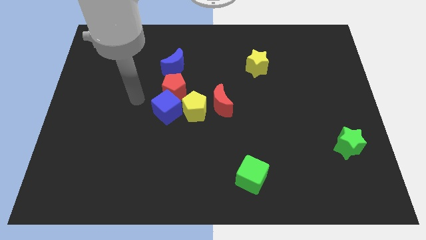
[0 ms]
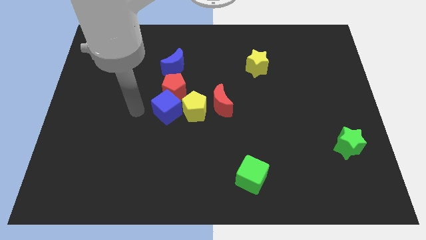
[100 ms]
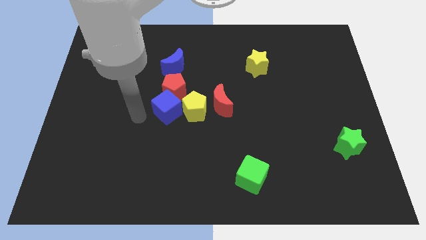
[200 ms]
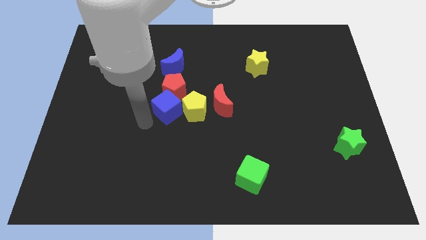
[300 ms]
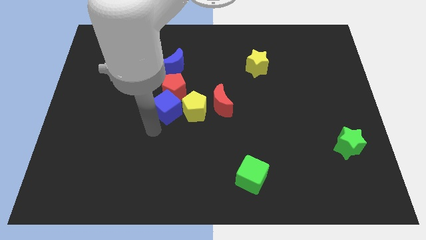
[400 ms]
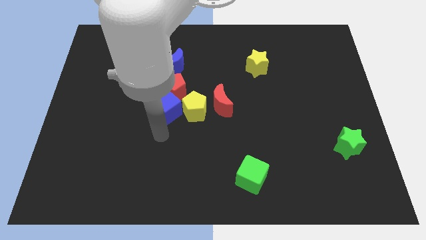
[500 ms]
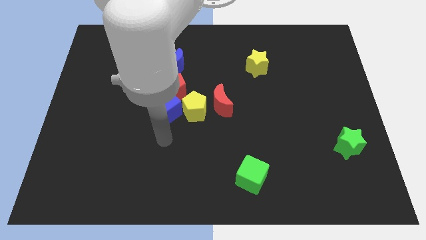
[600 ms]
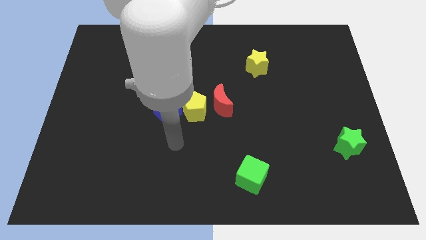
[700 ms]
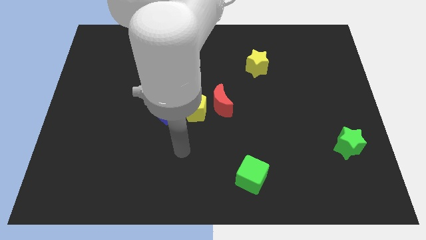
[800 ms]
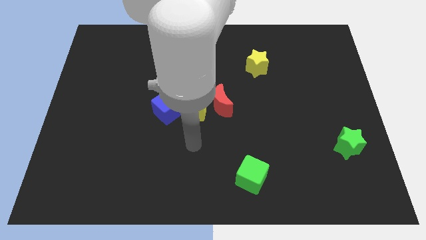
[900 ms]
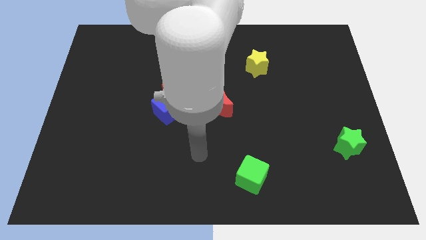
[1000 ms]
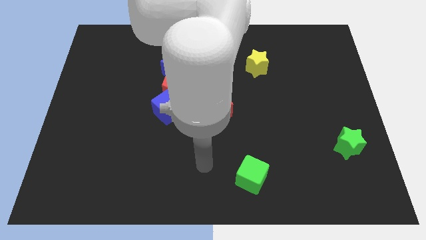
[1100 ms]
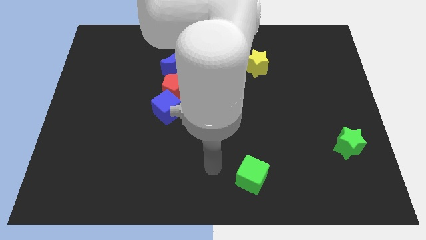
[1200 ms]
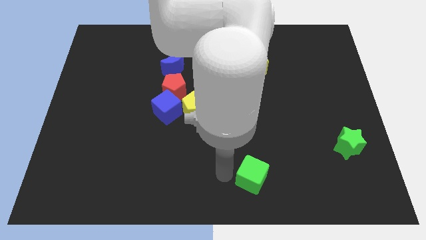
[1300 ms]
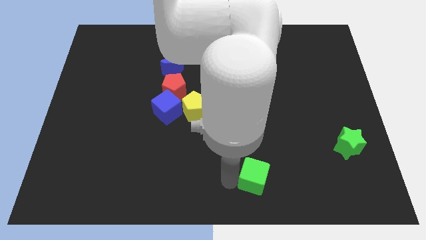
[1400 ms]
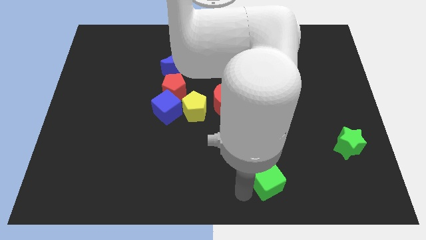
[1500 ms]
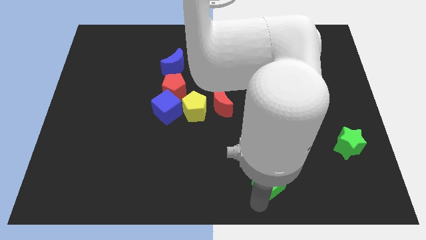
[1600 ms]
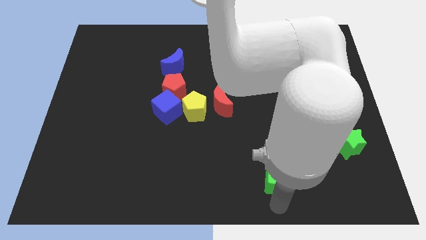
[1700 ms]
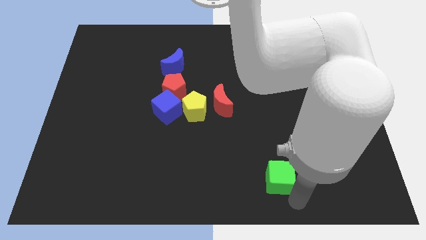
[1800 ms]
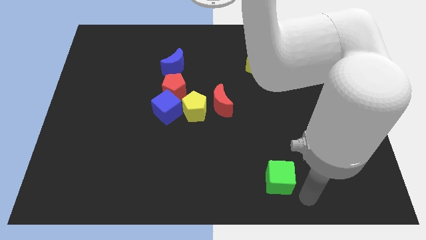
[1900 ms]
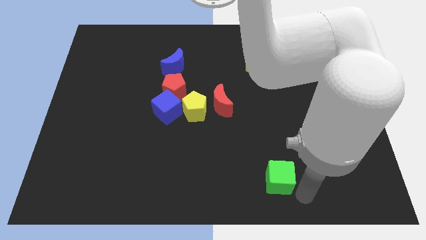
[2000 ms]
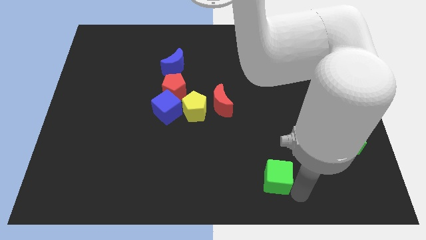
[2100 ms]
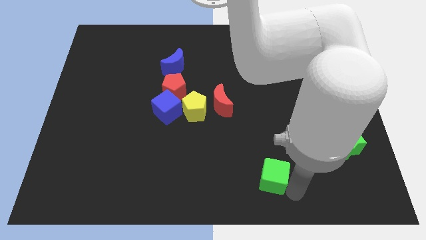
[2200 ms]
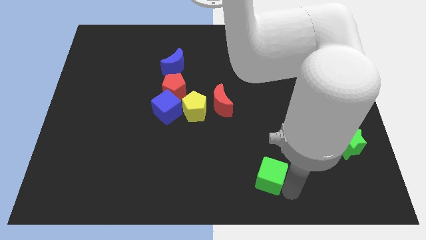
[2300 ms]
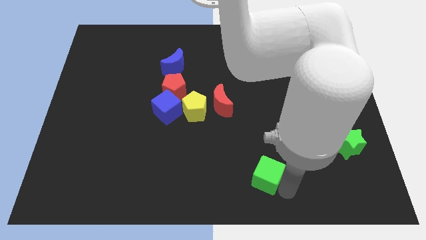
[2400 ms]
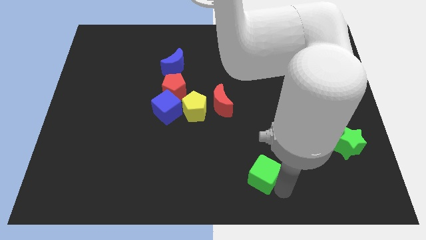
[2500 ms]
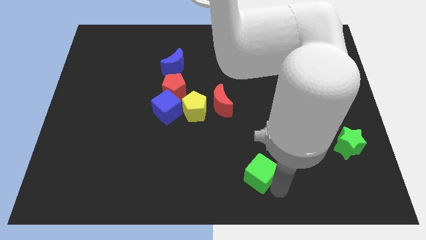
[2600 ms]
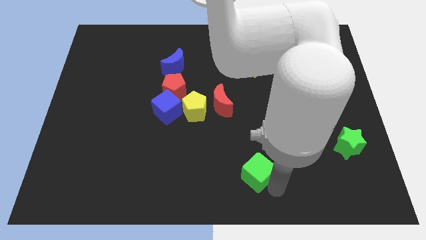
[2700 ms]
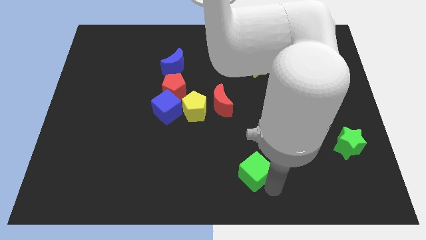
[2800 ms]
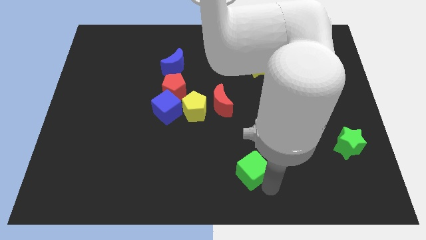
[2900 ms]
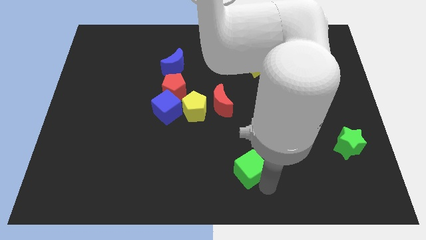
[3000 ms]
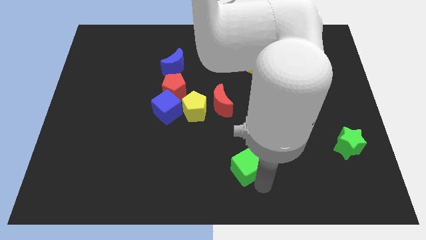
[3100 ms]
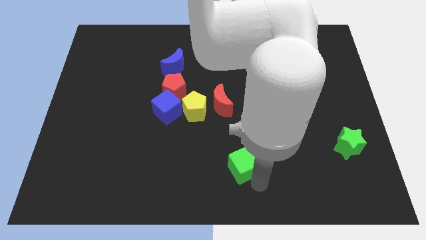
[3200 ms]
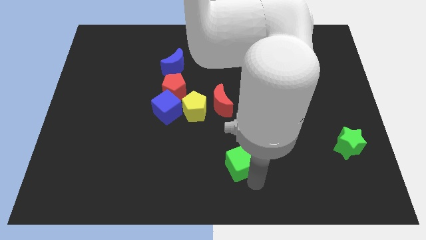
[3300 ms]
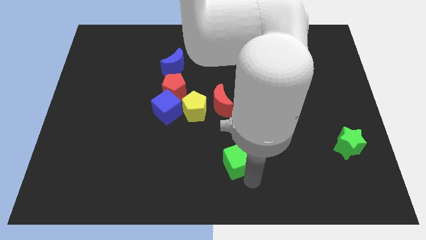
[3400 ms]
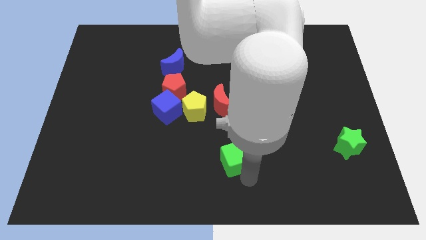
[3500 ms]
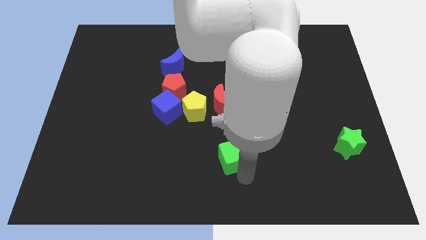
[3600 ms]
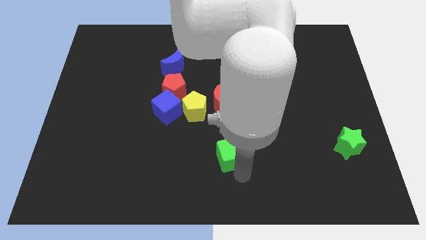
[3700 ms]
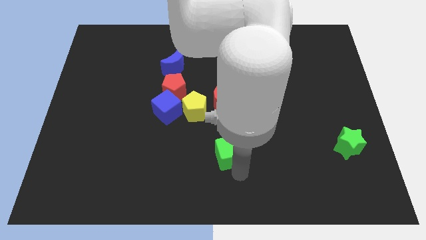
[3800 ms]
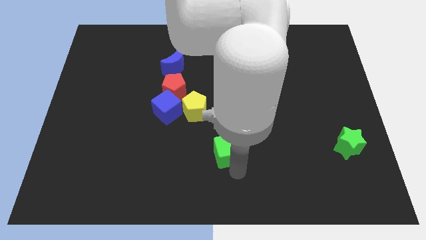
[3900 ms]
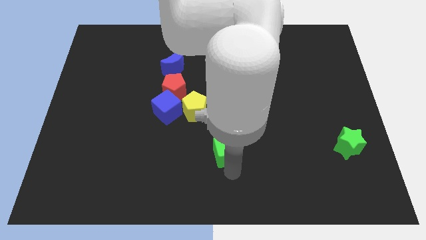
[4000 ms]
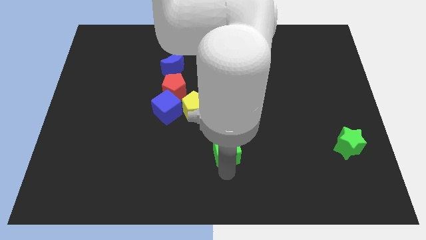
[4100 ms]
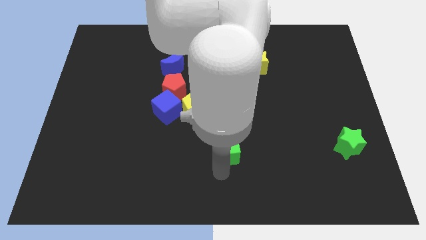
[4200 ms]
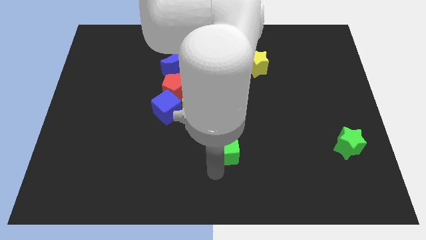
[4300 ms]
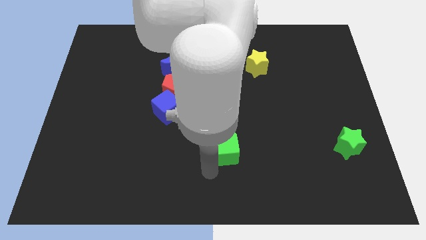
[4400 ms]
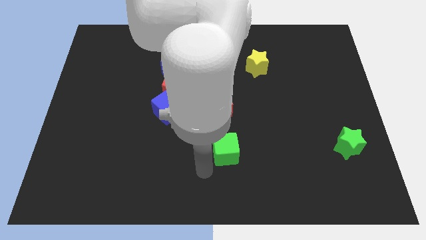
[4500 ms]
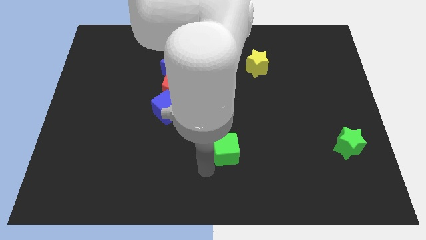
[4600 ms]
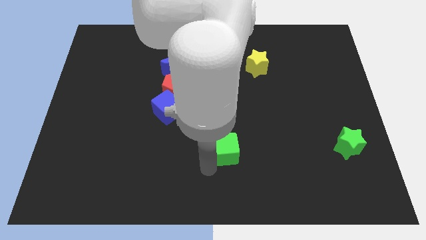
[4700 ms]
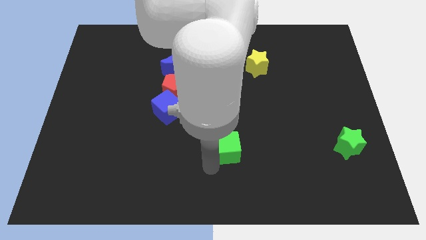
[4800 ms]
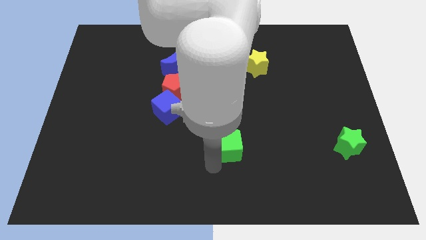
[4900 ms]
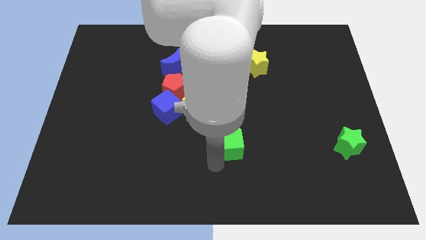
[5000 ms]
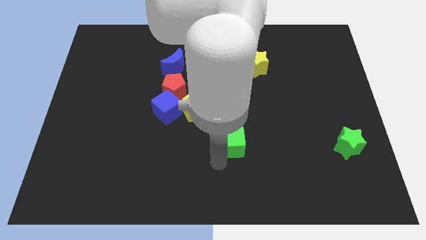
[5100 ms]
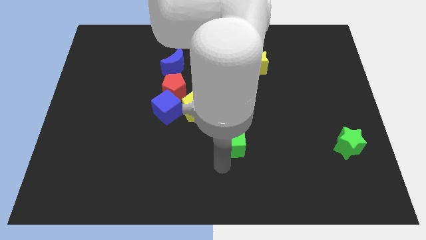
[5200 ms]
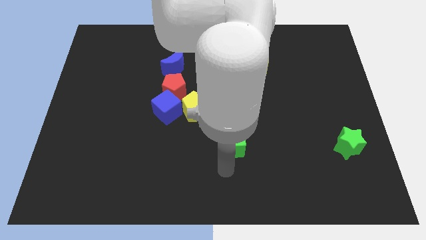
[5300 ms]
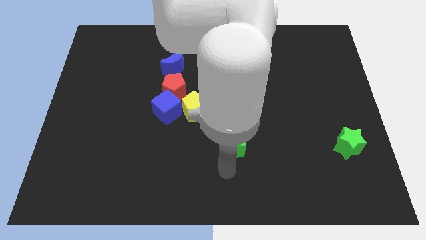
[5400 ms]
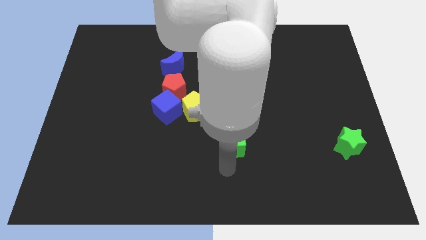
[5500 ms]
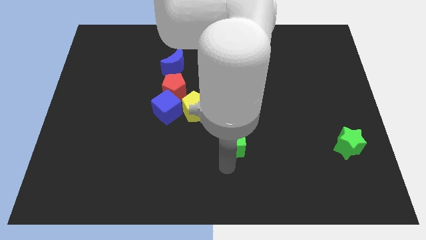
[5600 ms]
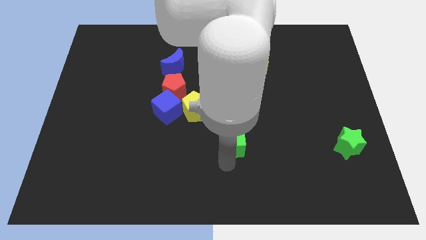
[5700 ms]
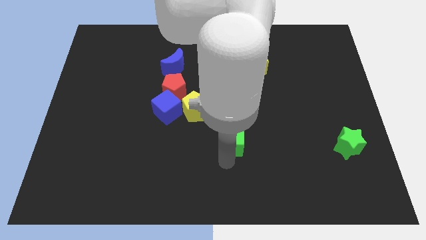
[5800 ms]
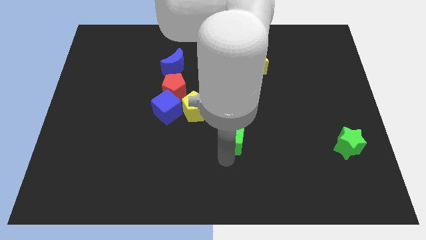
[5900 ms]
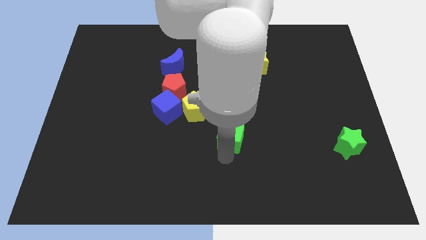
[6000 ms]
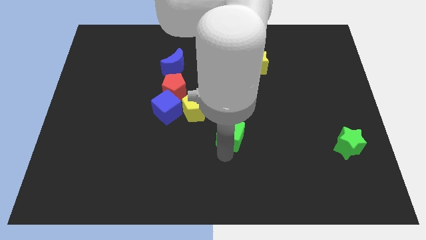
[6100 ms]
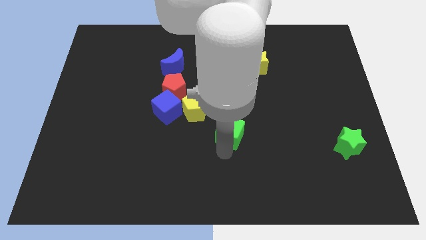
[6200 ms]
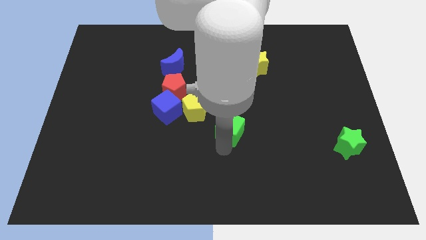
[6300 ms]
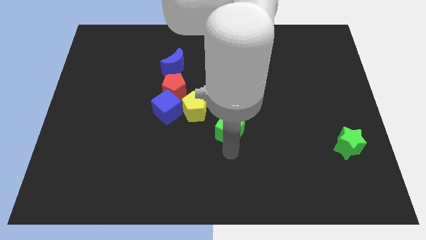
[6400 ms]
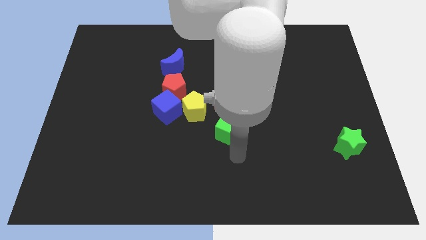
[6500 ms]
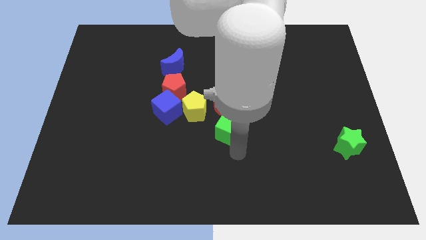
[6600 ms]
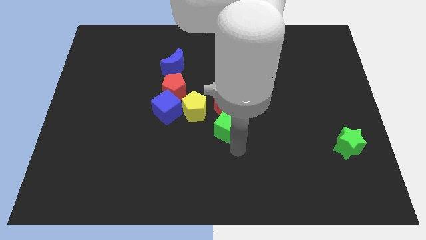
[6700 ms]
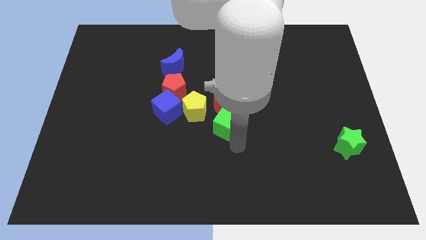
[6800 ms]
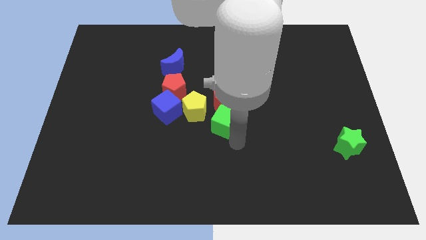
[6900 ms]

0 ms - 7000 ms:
move the green cube to the red moon

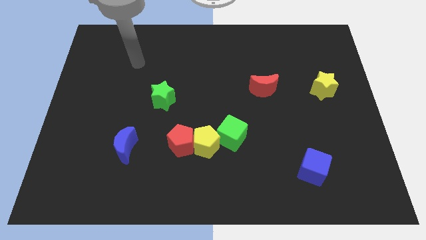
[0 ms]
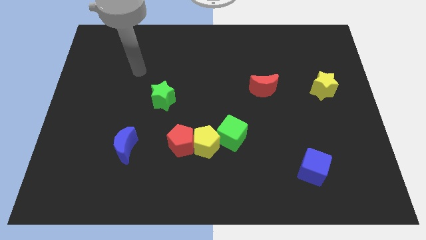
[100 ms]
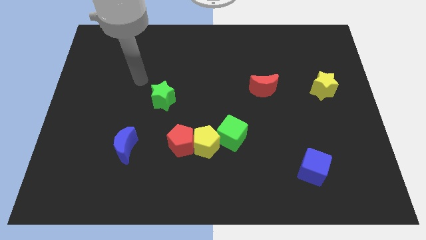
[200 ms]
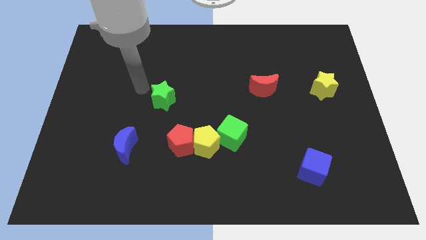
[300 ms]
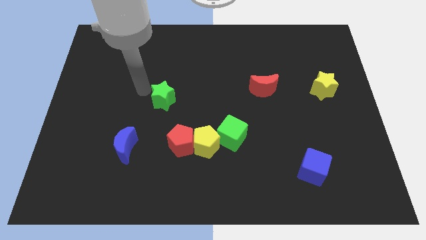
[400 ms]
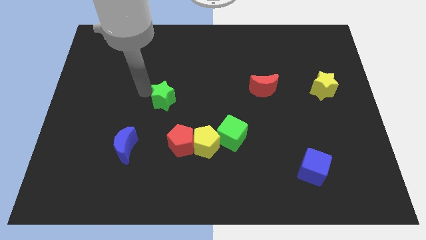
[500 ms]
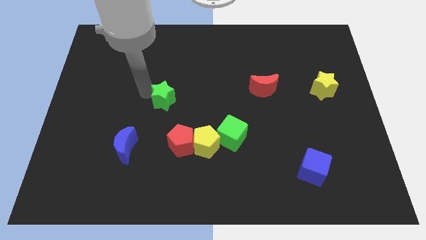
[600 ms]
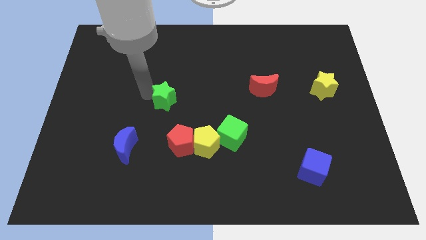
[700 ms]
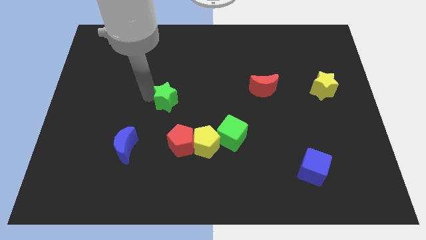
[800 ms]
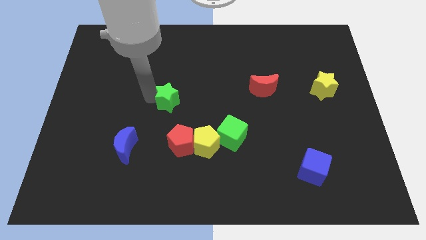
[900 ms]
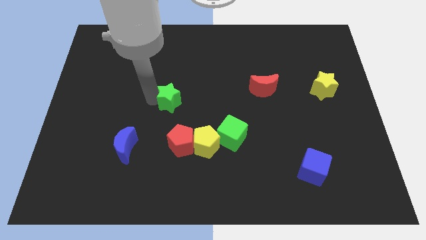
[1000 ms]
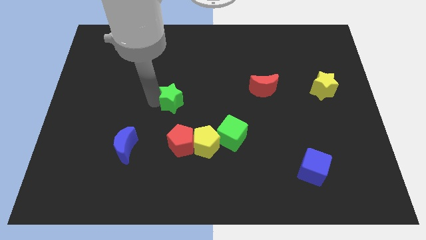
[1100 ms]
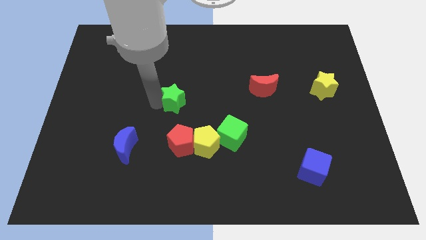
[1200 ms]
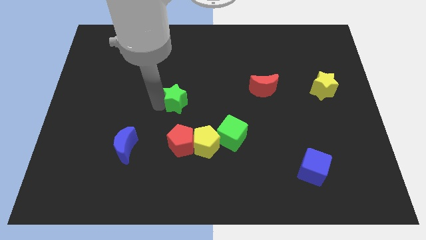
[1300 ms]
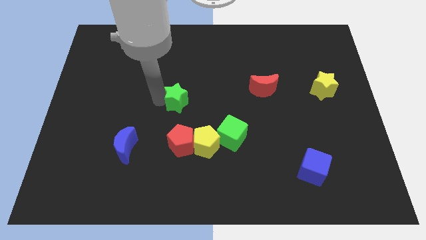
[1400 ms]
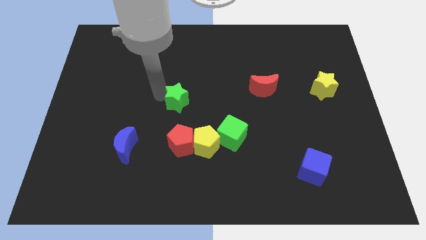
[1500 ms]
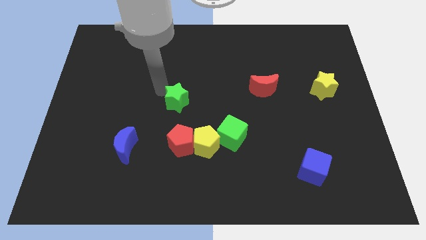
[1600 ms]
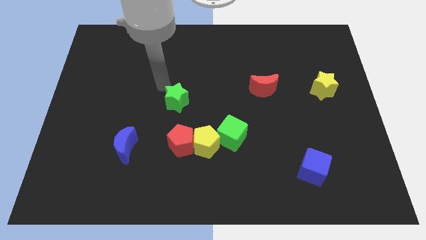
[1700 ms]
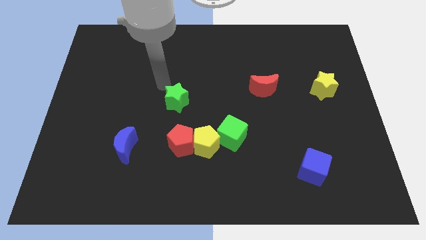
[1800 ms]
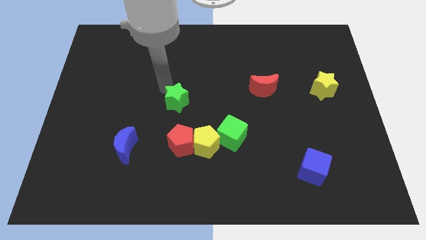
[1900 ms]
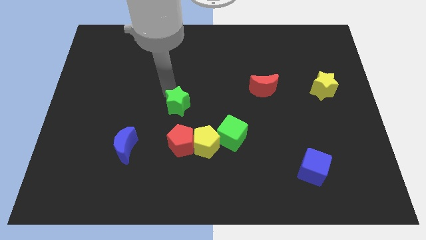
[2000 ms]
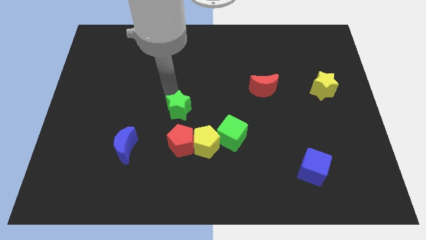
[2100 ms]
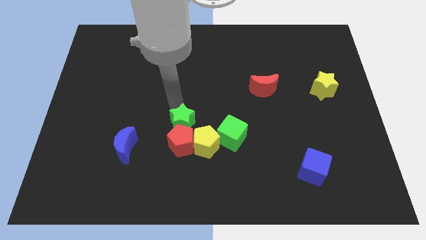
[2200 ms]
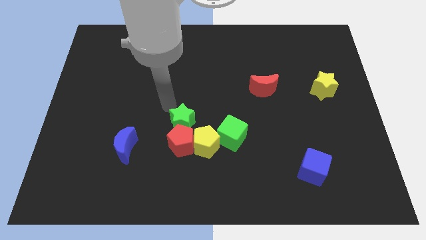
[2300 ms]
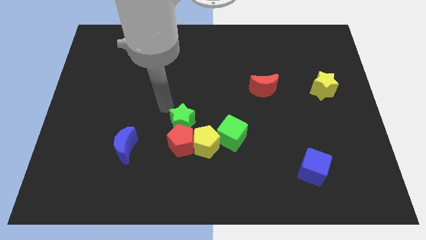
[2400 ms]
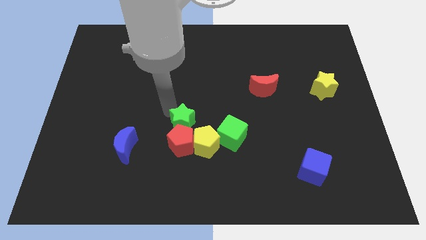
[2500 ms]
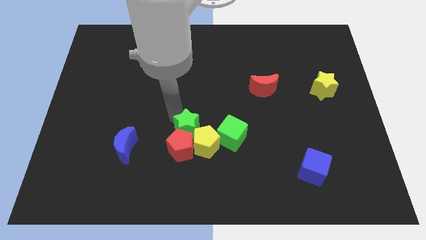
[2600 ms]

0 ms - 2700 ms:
move the green star next to the yellow pentagon
